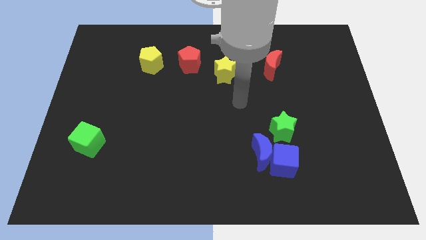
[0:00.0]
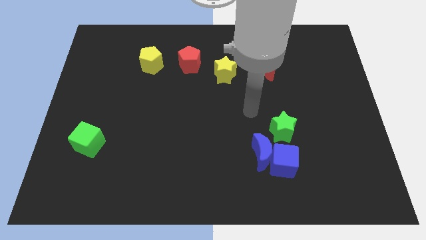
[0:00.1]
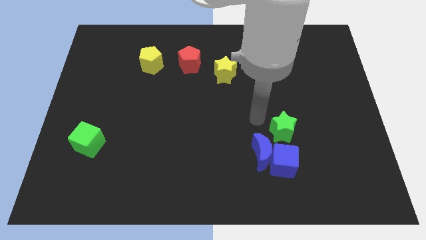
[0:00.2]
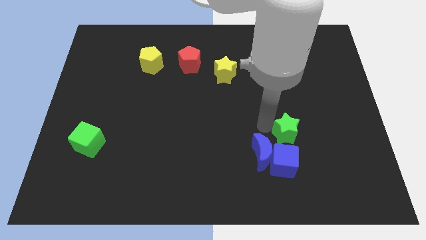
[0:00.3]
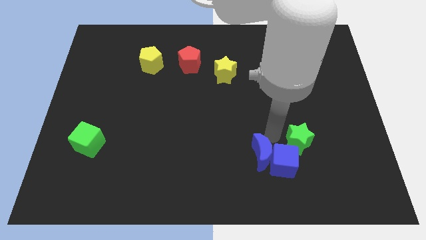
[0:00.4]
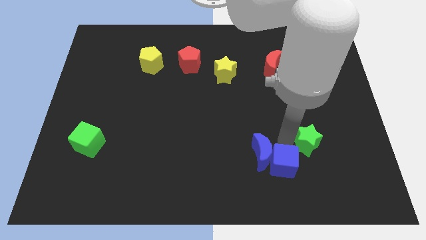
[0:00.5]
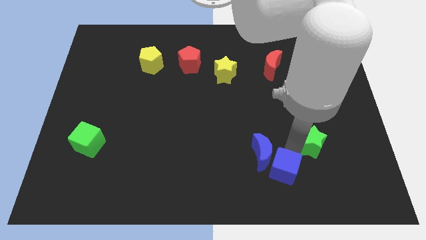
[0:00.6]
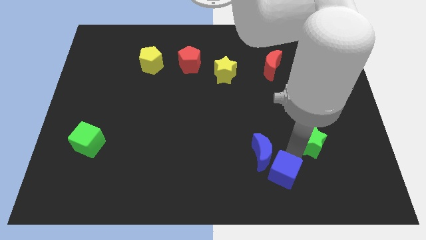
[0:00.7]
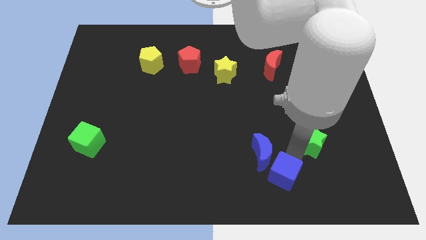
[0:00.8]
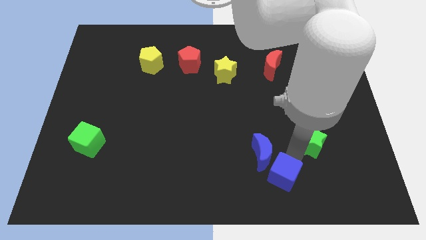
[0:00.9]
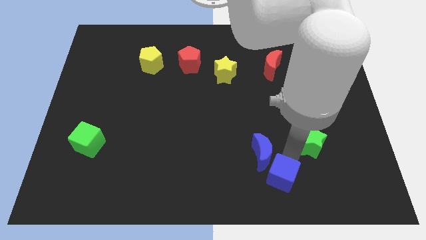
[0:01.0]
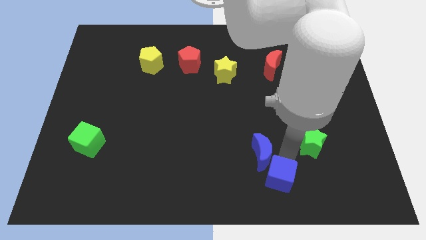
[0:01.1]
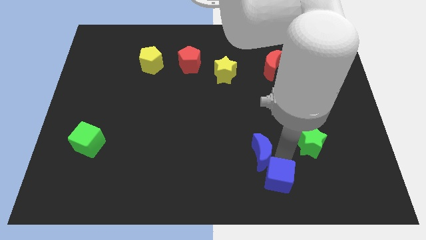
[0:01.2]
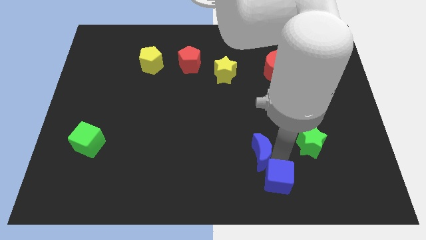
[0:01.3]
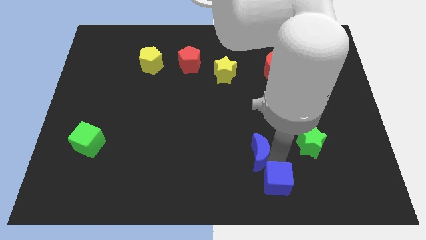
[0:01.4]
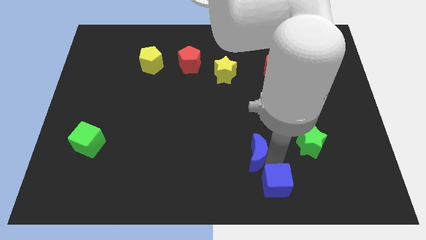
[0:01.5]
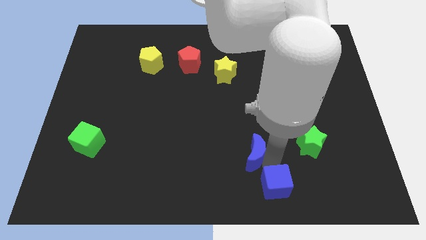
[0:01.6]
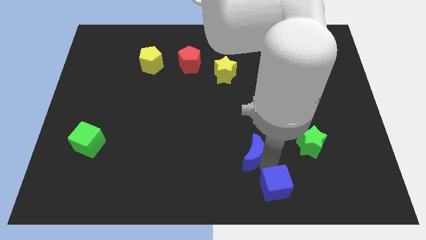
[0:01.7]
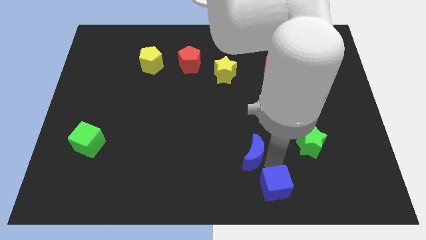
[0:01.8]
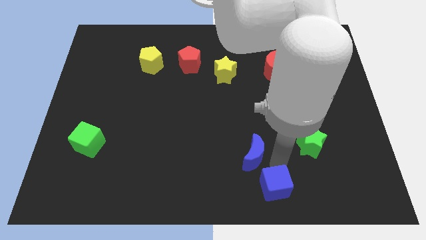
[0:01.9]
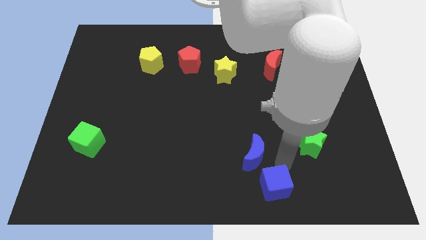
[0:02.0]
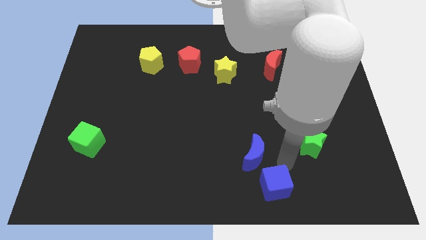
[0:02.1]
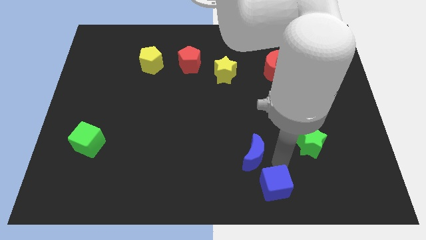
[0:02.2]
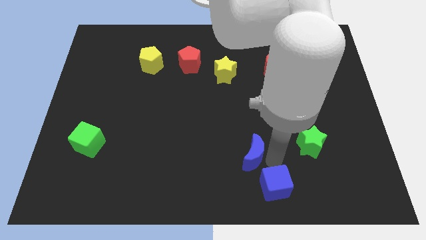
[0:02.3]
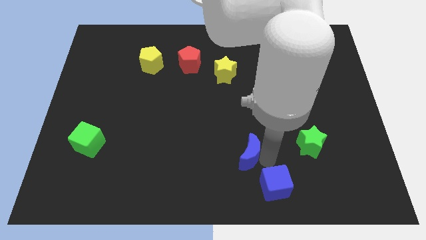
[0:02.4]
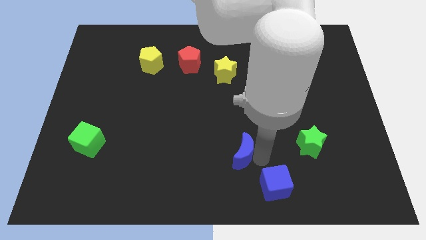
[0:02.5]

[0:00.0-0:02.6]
separate the blue moon from the blue cube and green star

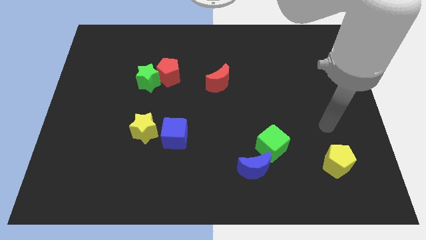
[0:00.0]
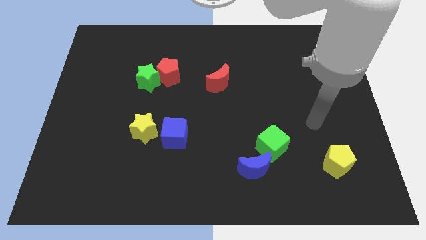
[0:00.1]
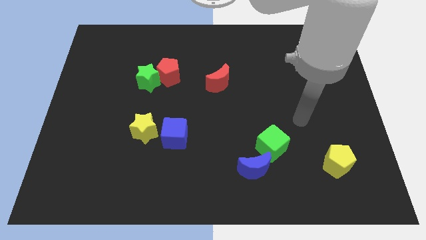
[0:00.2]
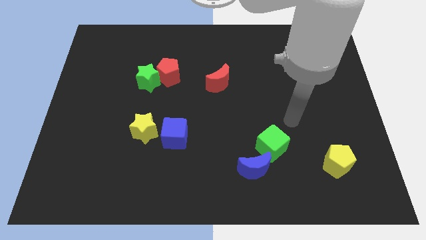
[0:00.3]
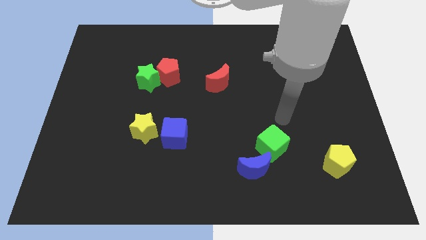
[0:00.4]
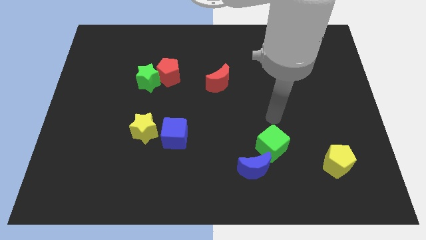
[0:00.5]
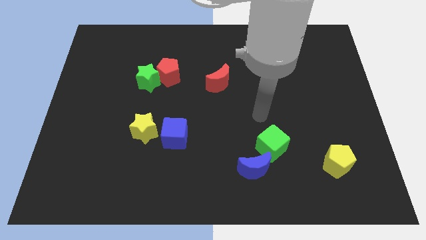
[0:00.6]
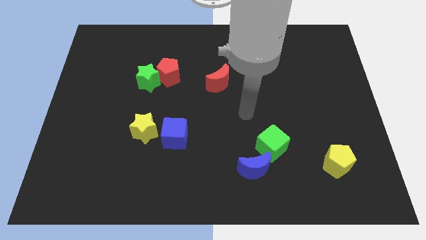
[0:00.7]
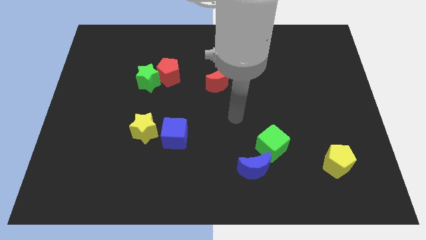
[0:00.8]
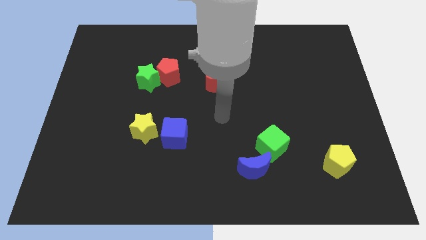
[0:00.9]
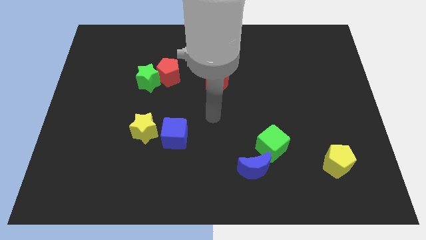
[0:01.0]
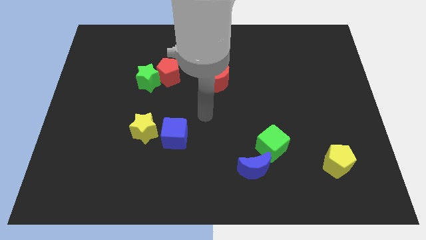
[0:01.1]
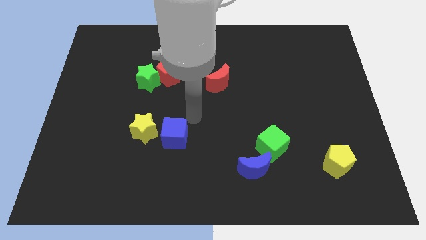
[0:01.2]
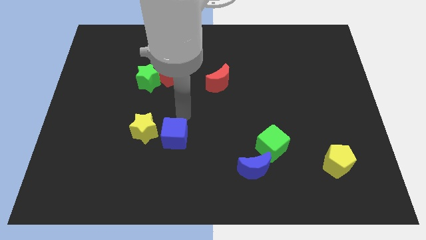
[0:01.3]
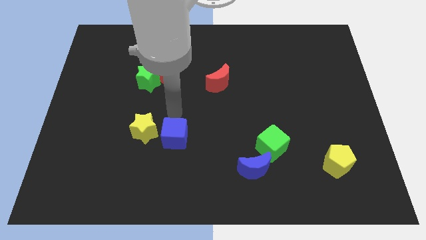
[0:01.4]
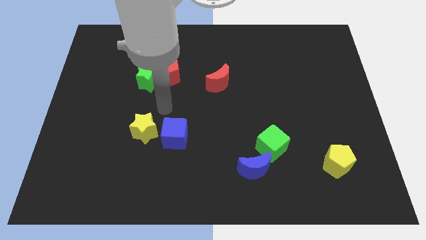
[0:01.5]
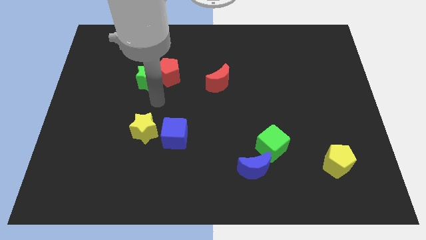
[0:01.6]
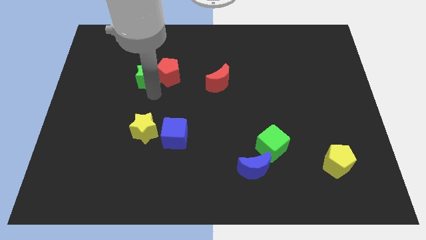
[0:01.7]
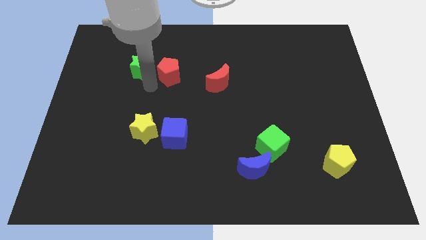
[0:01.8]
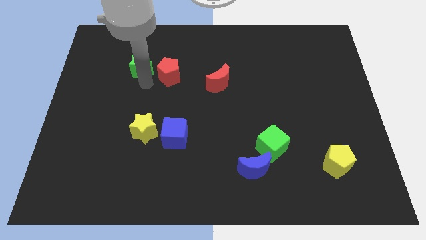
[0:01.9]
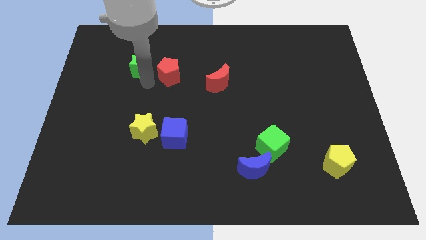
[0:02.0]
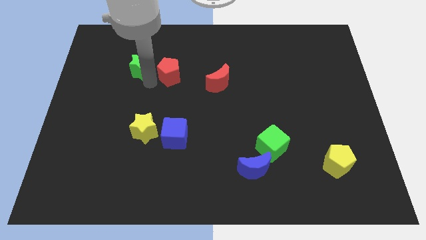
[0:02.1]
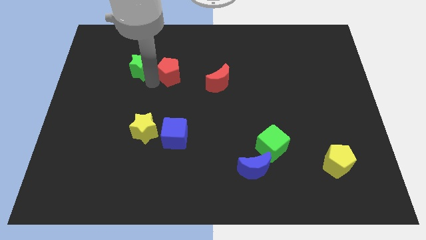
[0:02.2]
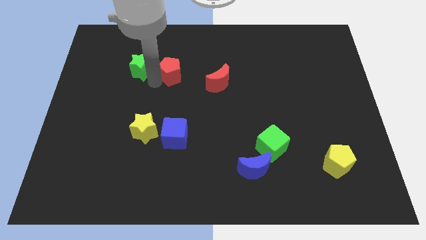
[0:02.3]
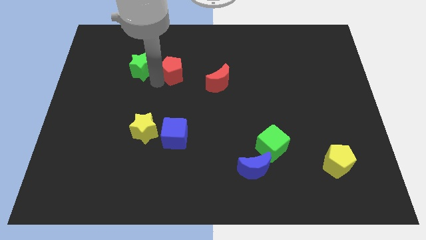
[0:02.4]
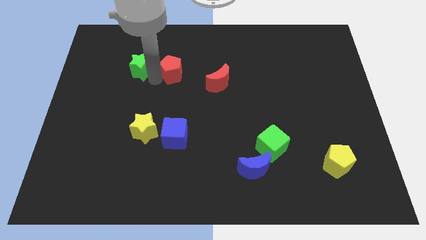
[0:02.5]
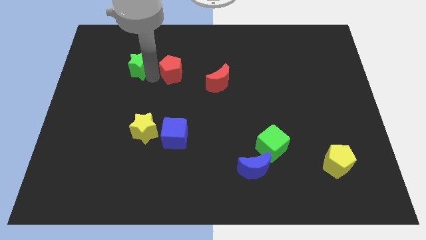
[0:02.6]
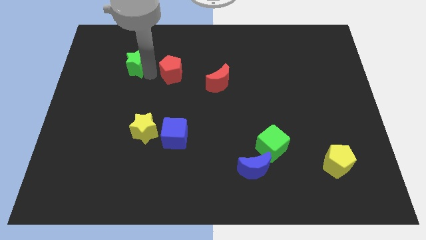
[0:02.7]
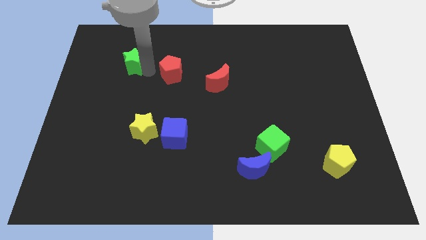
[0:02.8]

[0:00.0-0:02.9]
separate the red pentagon from the green star

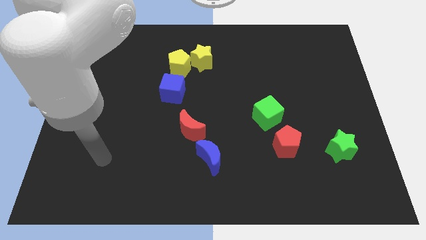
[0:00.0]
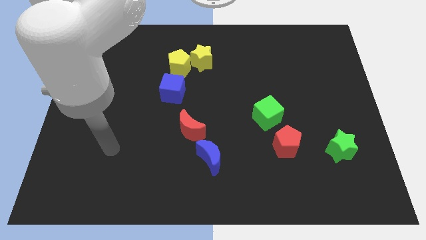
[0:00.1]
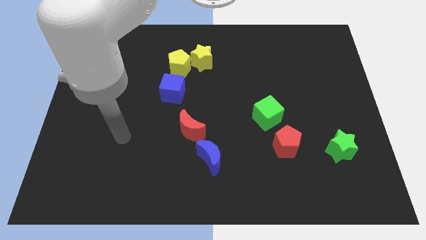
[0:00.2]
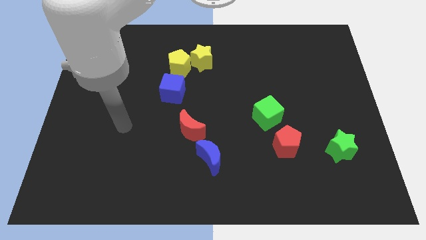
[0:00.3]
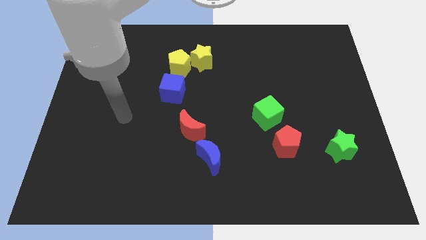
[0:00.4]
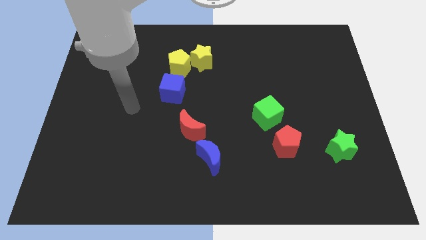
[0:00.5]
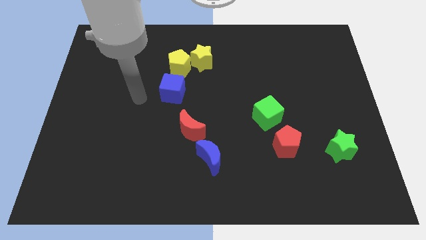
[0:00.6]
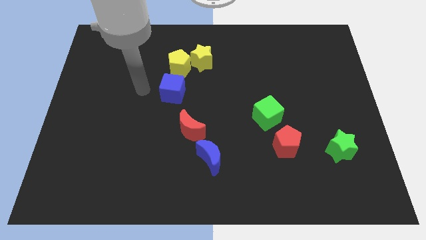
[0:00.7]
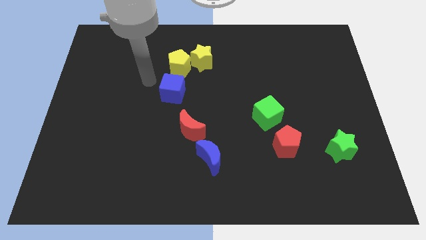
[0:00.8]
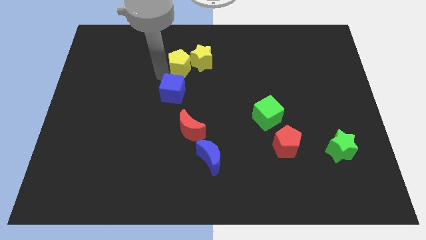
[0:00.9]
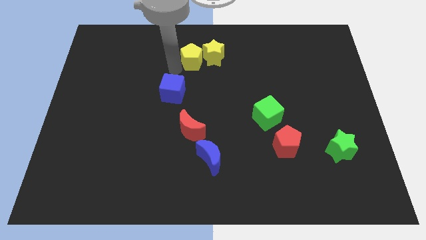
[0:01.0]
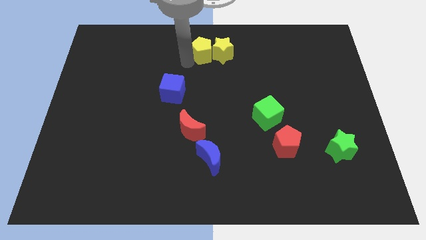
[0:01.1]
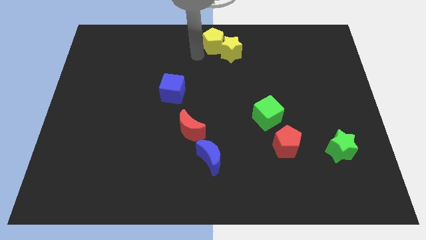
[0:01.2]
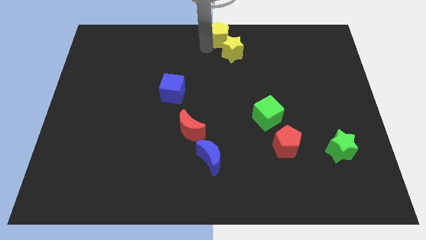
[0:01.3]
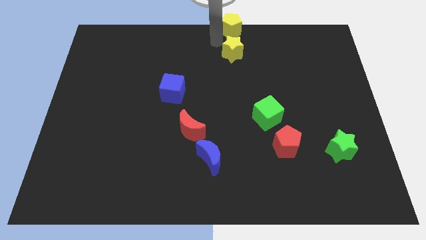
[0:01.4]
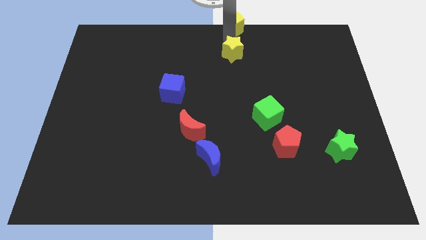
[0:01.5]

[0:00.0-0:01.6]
move the yellow star away from the yellow pentagon

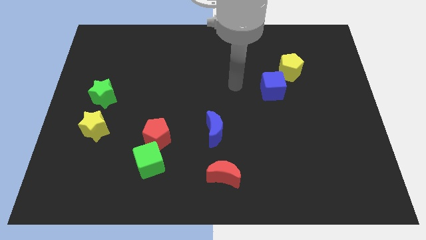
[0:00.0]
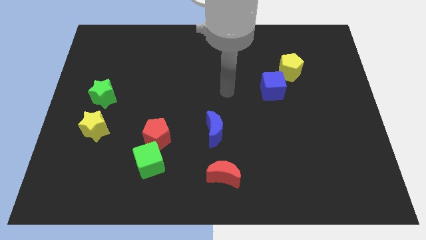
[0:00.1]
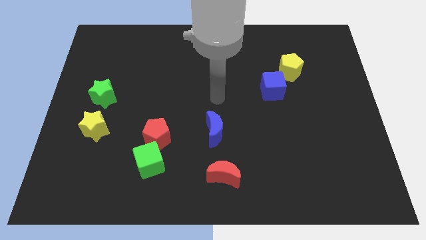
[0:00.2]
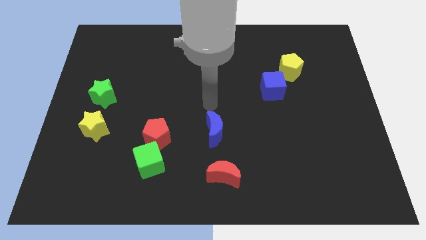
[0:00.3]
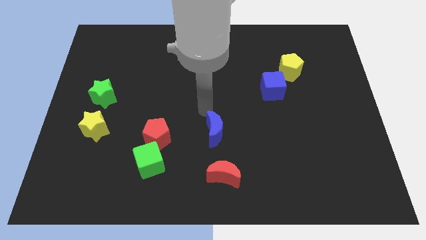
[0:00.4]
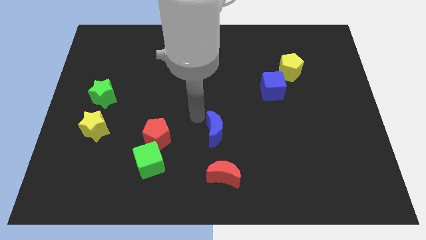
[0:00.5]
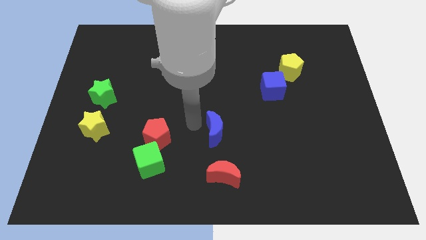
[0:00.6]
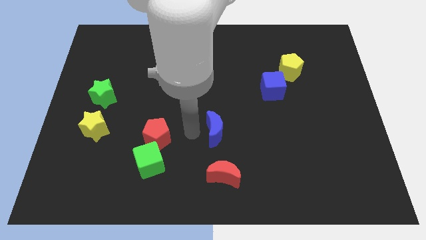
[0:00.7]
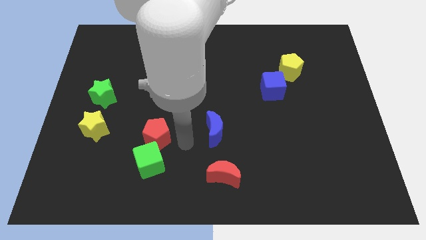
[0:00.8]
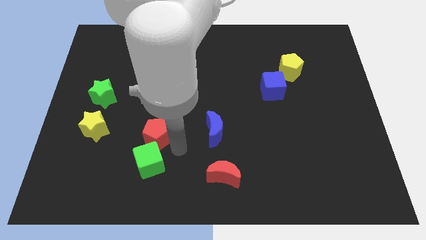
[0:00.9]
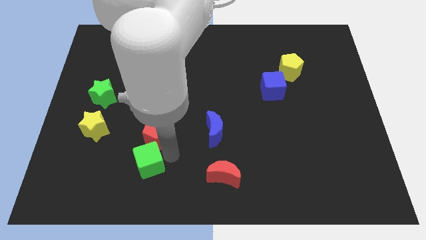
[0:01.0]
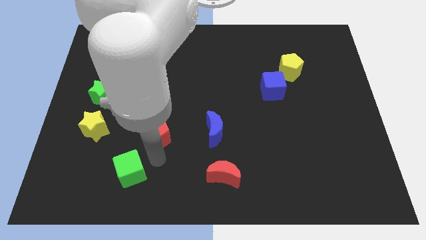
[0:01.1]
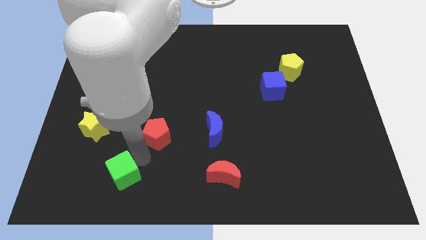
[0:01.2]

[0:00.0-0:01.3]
separate the red pentagon from the green cube

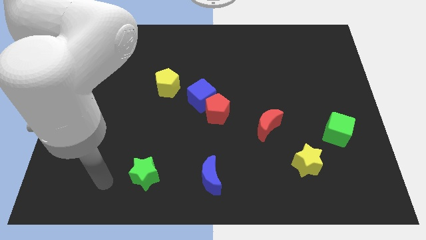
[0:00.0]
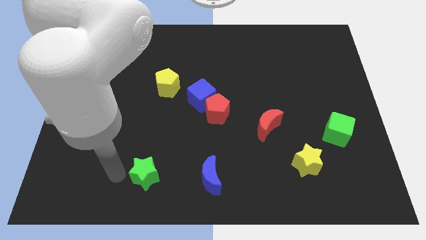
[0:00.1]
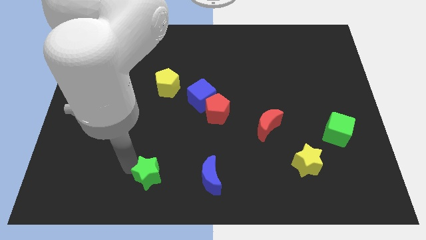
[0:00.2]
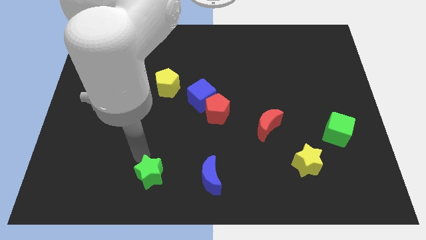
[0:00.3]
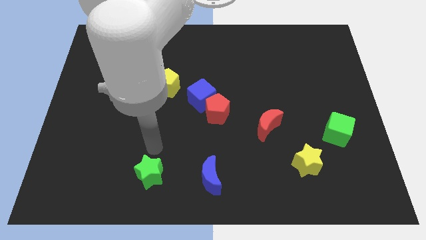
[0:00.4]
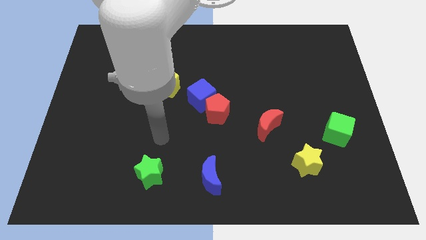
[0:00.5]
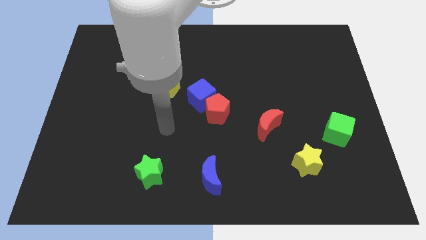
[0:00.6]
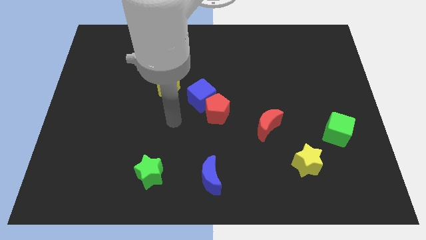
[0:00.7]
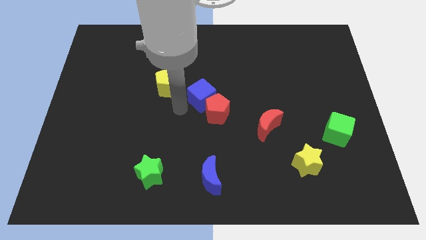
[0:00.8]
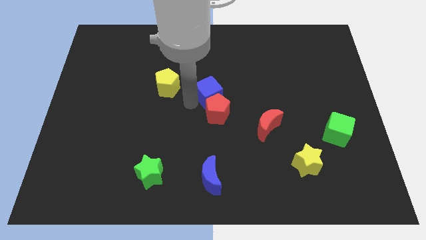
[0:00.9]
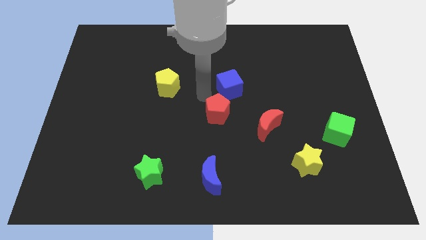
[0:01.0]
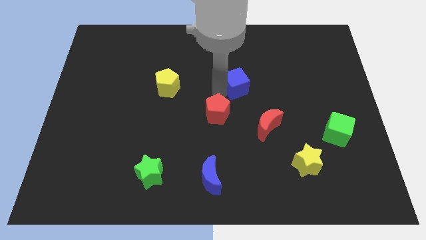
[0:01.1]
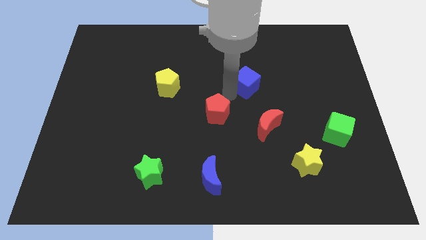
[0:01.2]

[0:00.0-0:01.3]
move the red pentagon away from the blue cube
